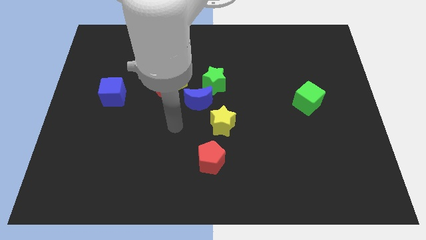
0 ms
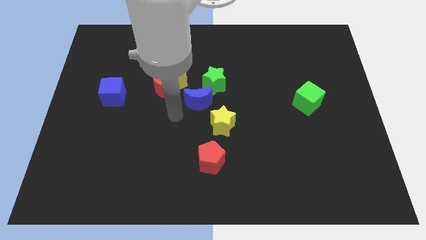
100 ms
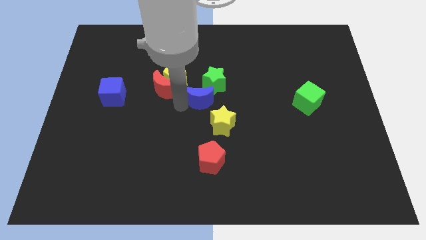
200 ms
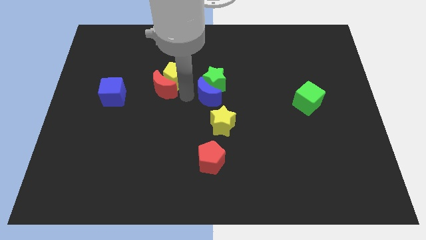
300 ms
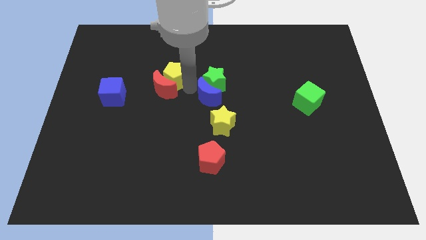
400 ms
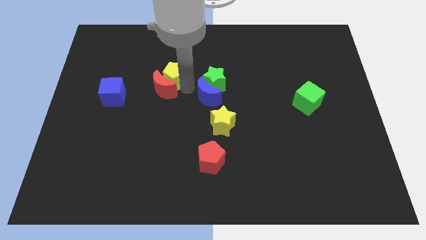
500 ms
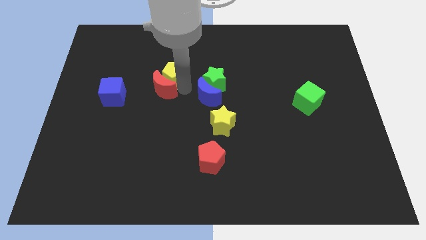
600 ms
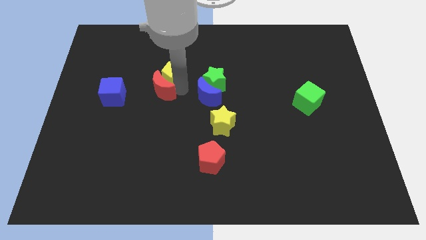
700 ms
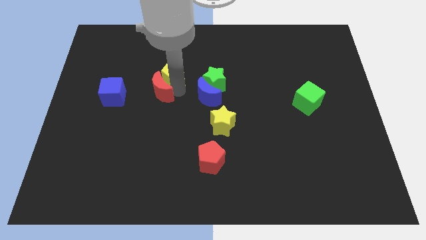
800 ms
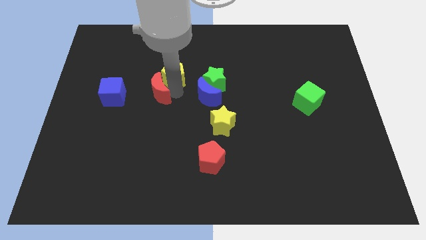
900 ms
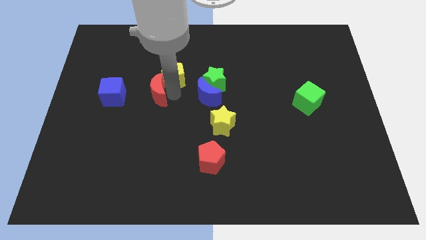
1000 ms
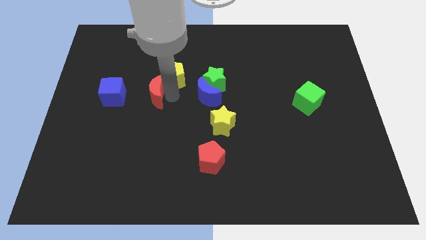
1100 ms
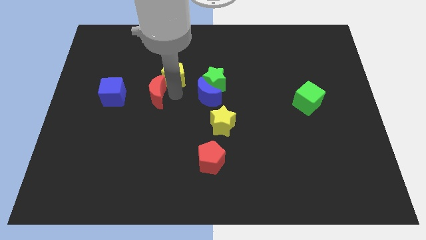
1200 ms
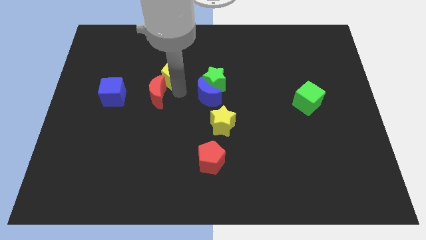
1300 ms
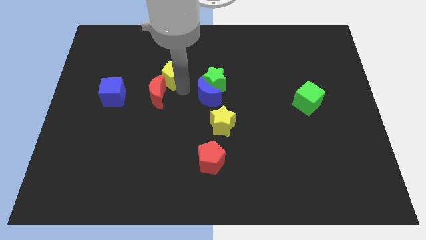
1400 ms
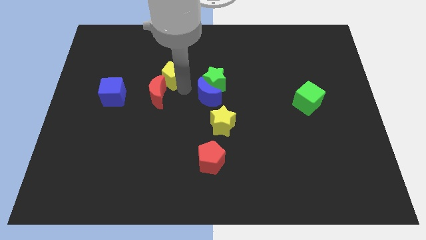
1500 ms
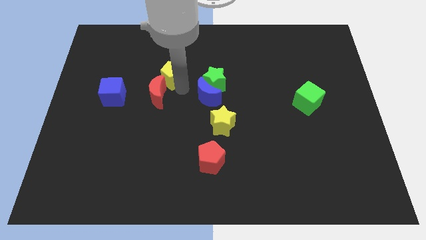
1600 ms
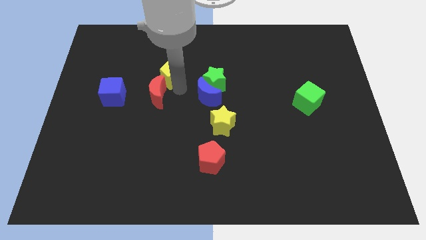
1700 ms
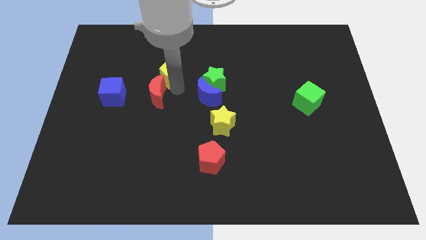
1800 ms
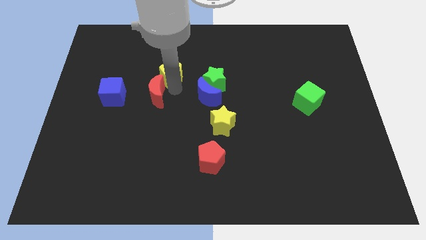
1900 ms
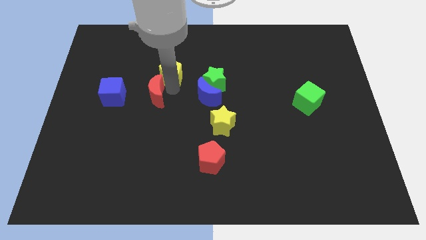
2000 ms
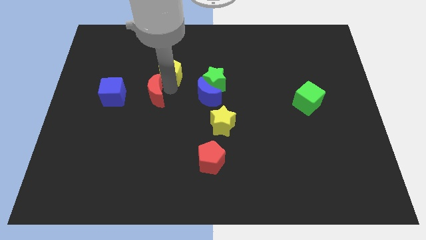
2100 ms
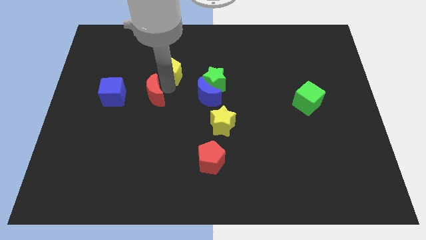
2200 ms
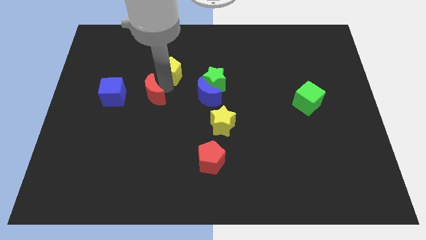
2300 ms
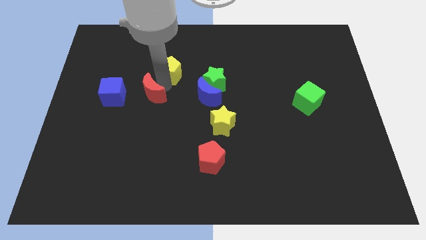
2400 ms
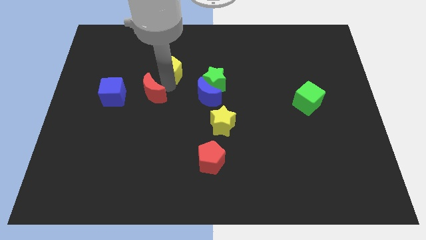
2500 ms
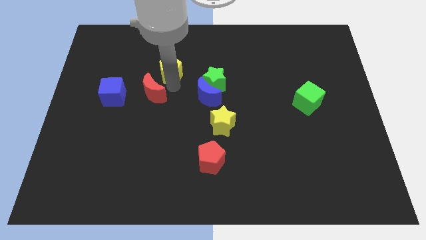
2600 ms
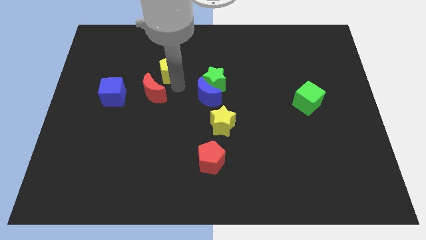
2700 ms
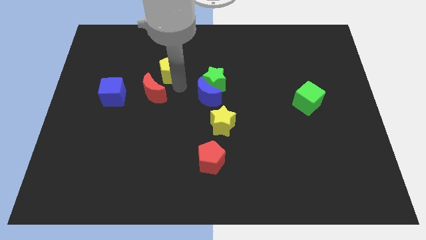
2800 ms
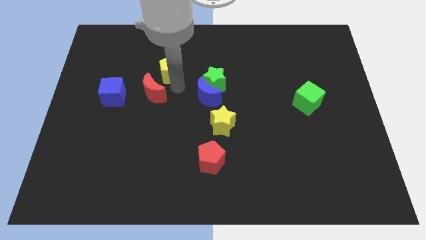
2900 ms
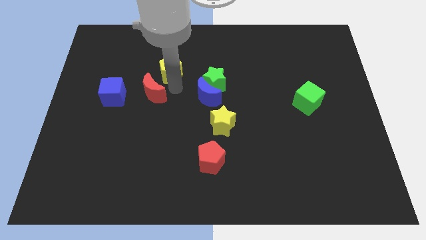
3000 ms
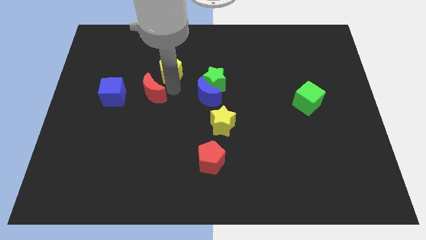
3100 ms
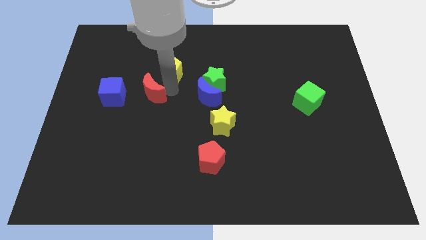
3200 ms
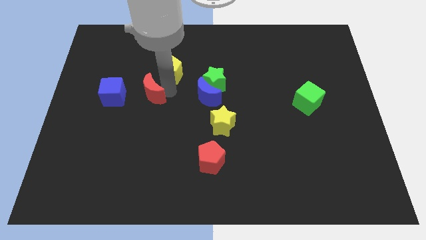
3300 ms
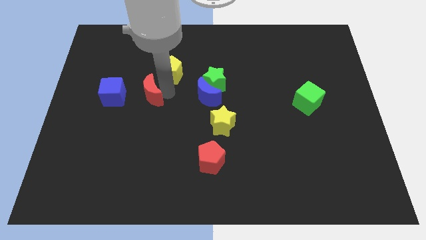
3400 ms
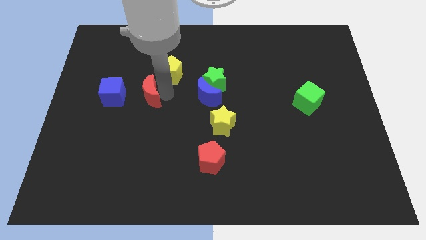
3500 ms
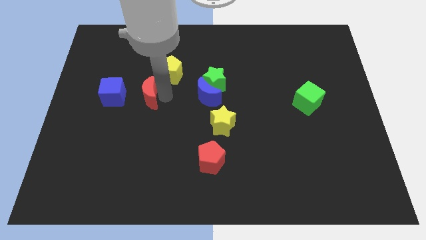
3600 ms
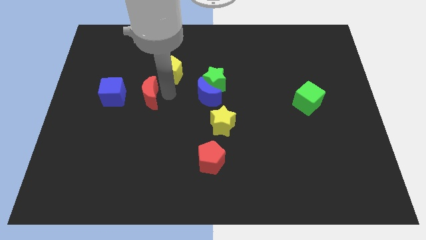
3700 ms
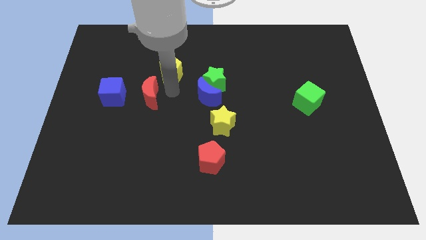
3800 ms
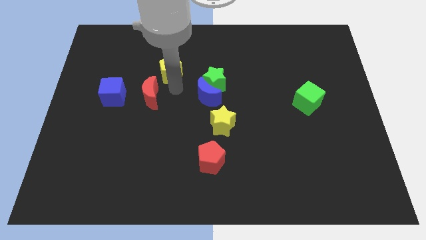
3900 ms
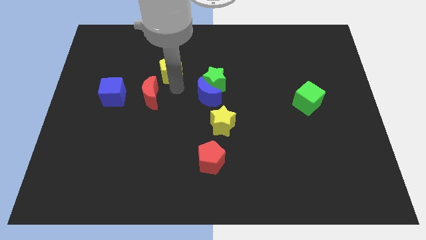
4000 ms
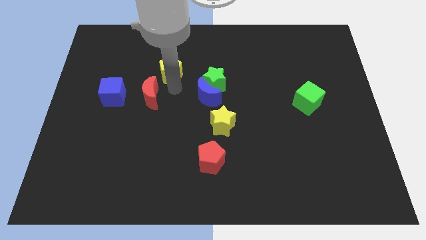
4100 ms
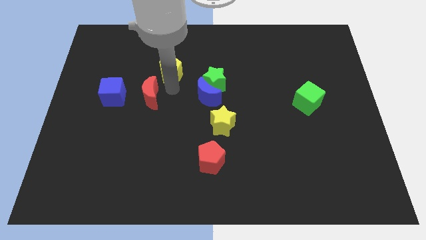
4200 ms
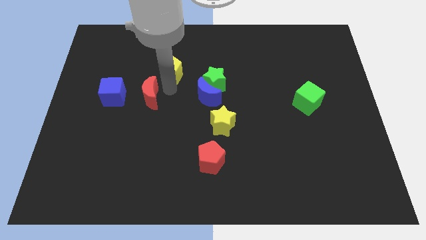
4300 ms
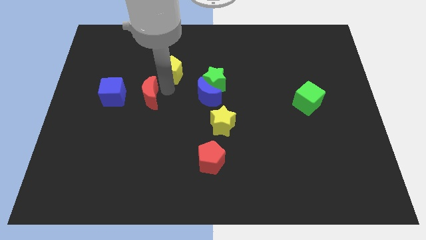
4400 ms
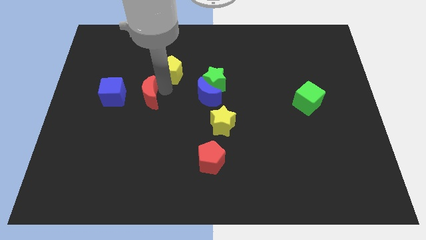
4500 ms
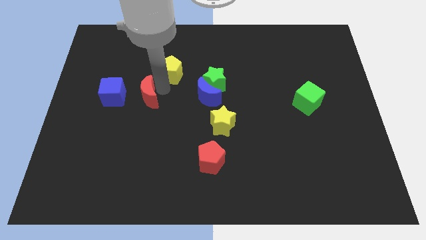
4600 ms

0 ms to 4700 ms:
move the red moon away from the yellow pentagon and blue moon

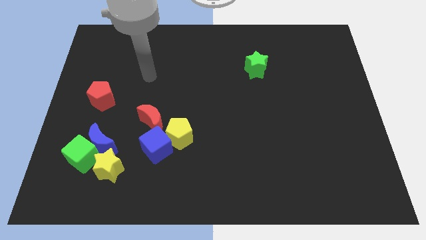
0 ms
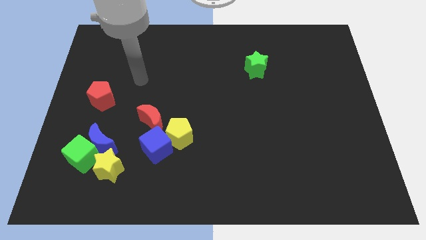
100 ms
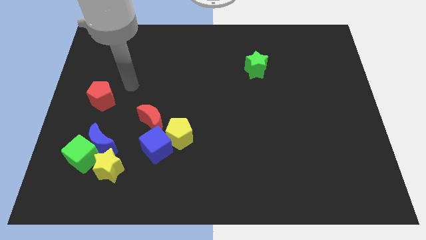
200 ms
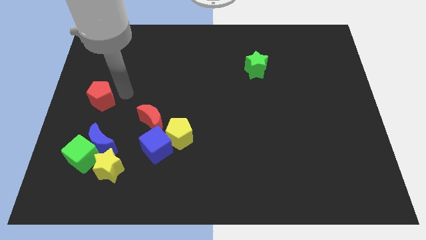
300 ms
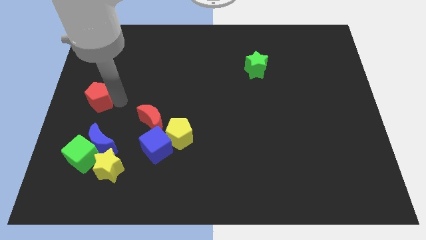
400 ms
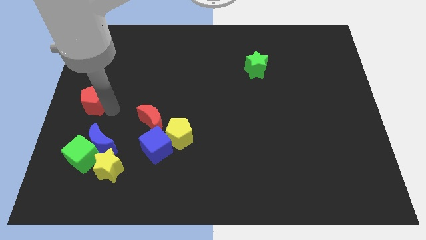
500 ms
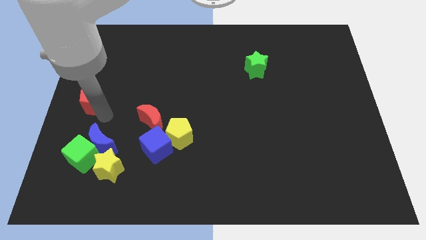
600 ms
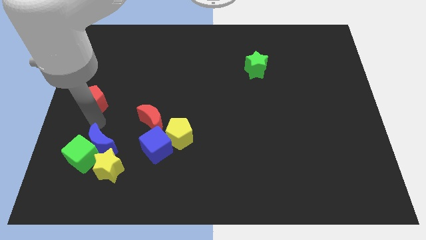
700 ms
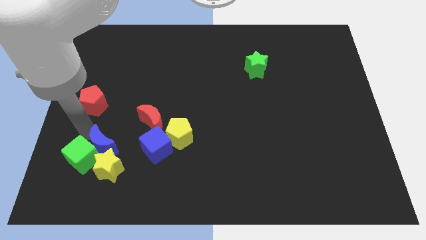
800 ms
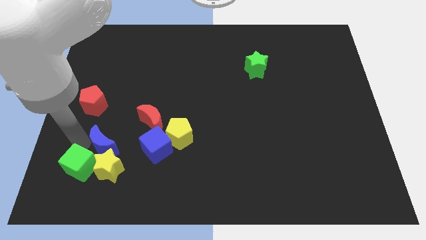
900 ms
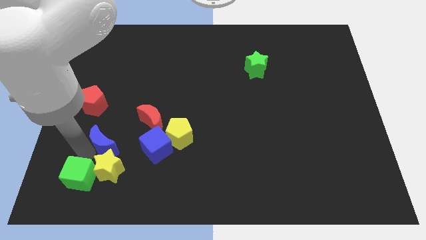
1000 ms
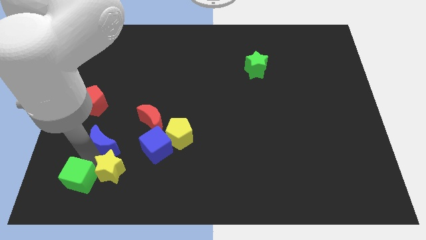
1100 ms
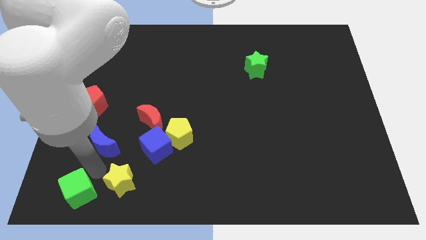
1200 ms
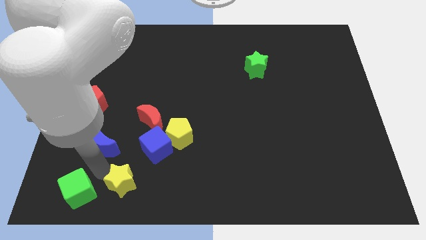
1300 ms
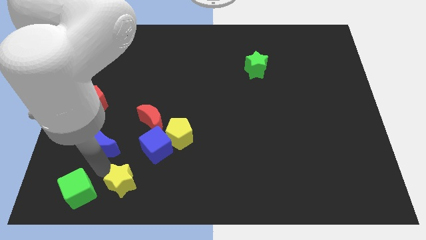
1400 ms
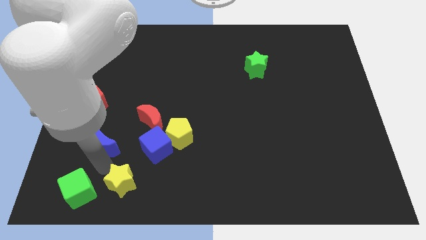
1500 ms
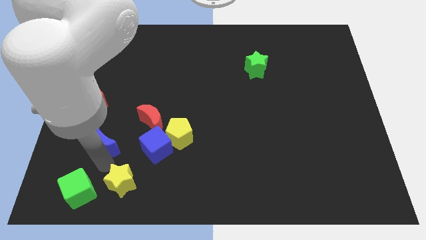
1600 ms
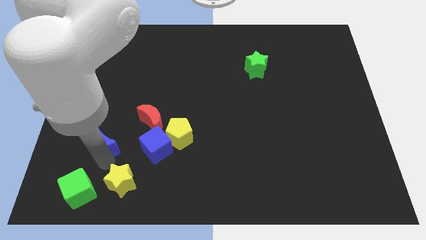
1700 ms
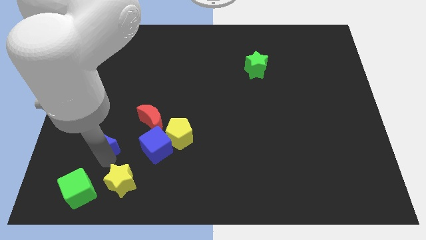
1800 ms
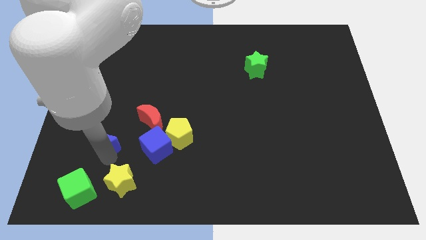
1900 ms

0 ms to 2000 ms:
pull the blue moon apart from the green cube and yellow star

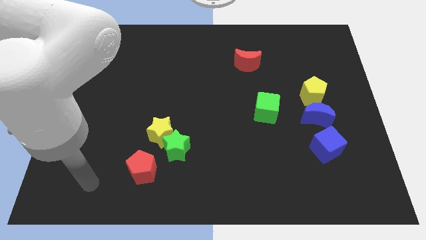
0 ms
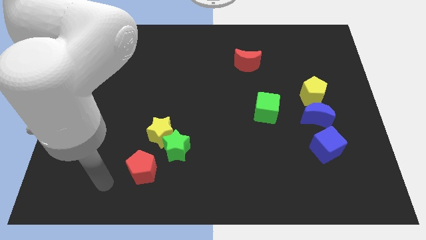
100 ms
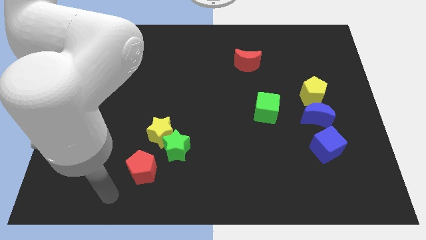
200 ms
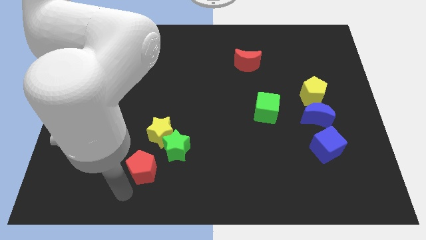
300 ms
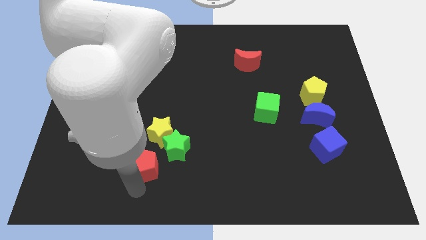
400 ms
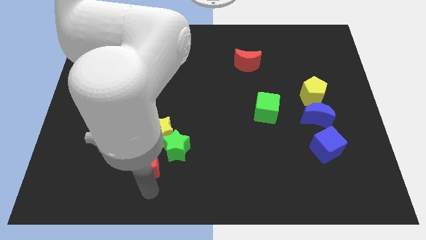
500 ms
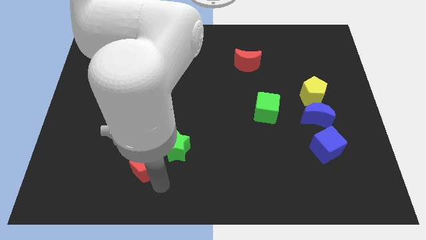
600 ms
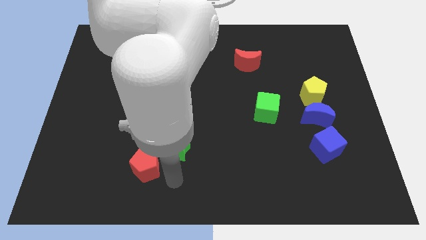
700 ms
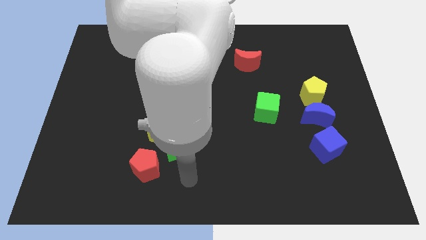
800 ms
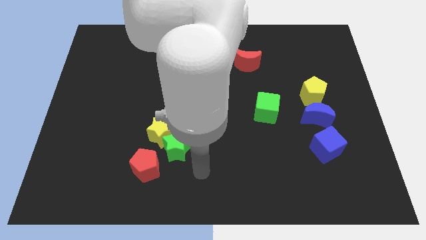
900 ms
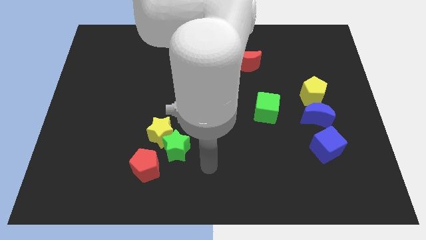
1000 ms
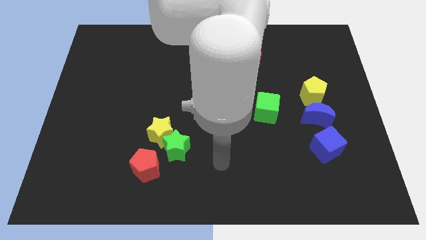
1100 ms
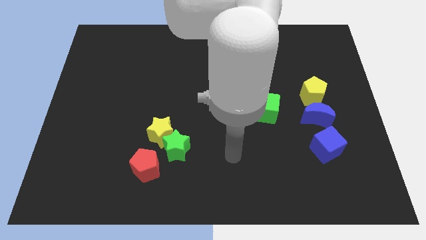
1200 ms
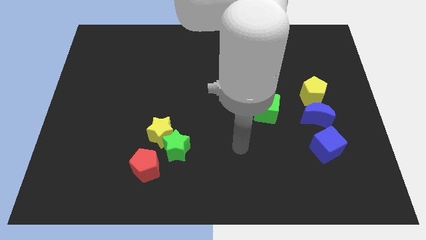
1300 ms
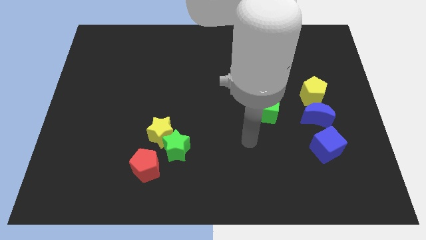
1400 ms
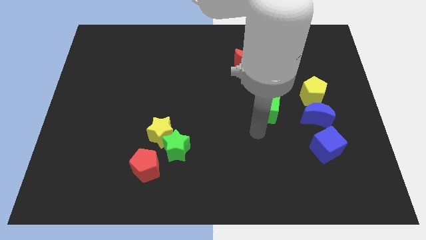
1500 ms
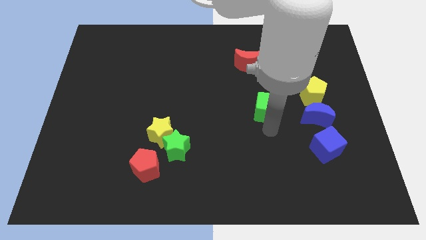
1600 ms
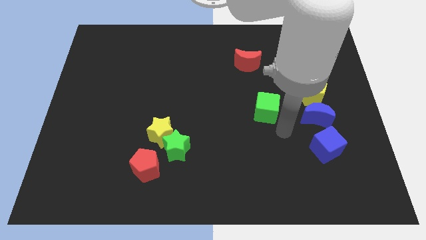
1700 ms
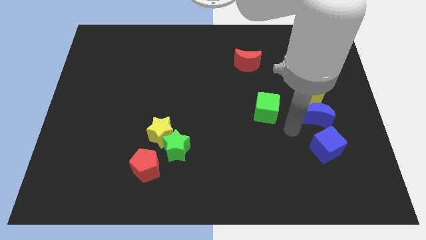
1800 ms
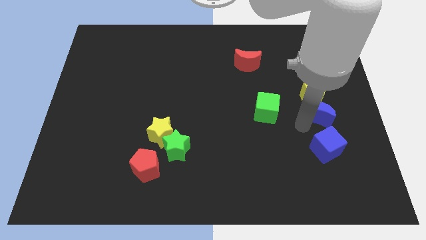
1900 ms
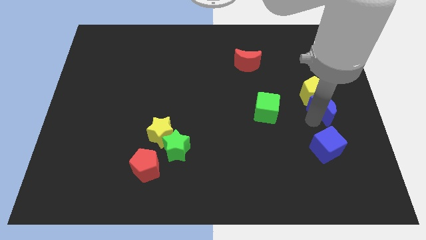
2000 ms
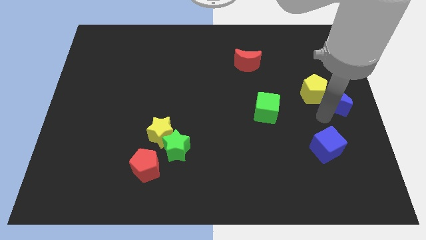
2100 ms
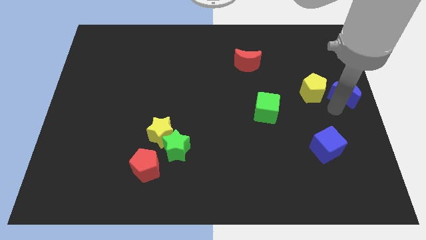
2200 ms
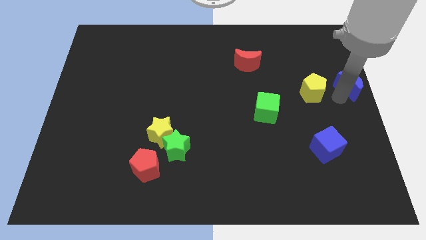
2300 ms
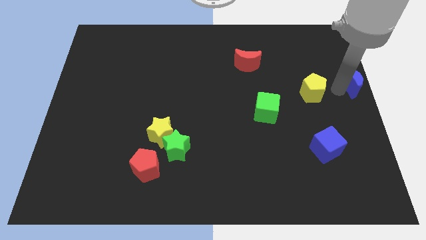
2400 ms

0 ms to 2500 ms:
pull the yellow pentagon apart from the blue moon

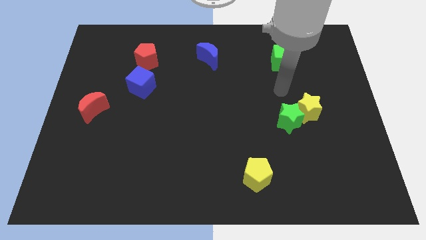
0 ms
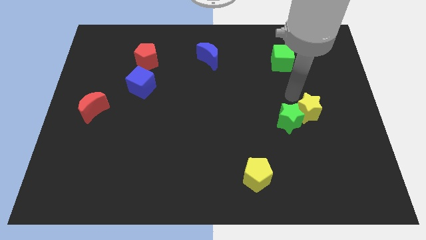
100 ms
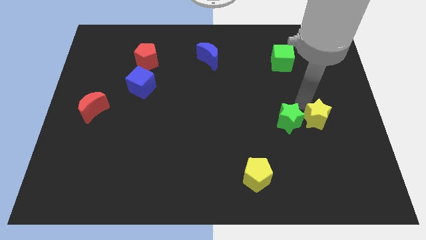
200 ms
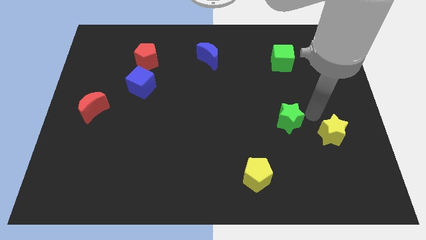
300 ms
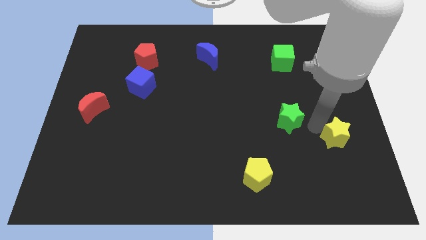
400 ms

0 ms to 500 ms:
pull the green star apart from the yellow star
